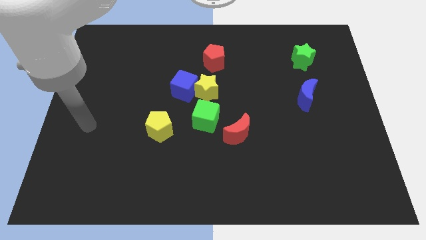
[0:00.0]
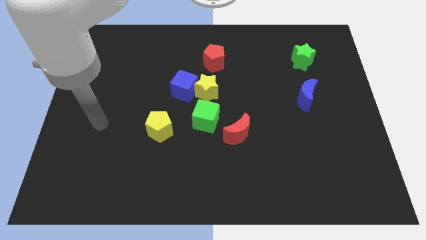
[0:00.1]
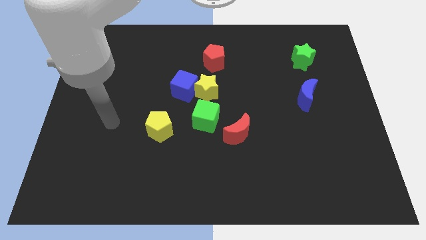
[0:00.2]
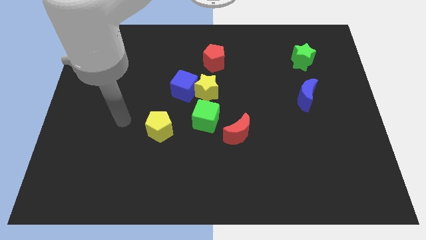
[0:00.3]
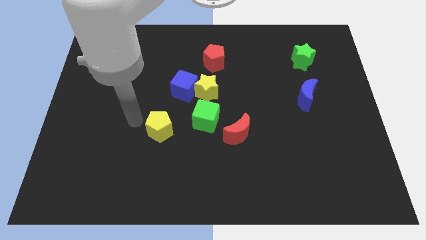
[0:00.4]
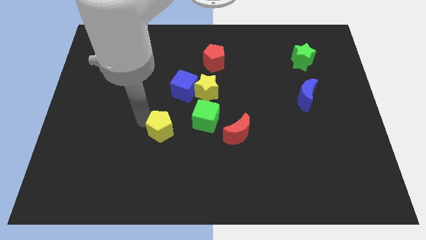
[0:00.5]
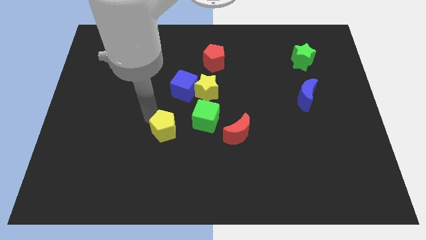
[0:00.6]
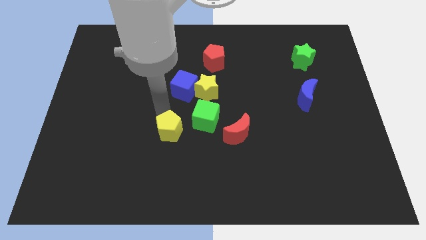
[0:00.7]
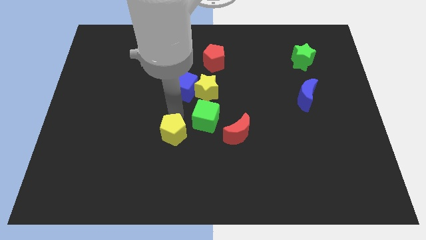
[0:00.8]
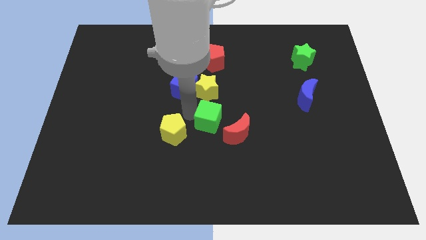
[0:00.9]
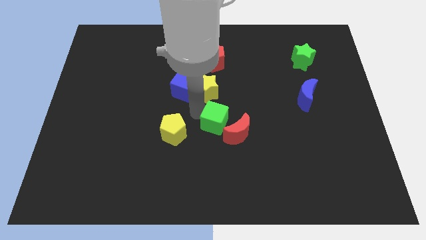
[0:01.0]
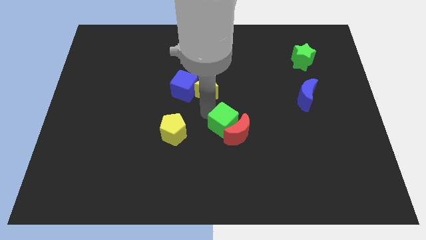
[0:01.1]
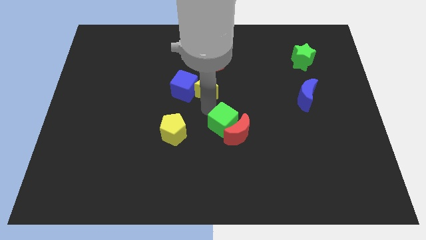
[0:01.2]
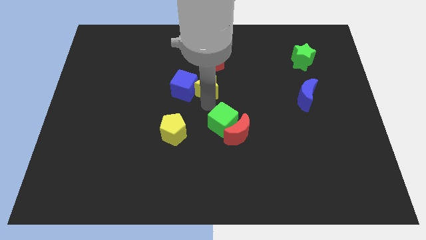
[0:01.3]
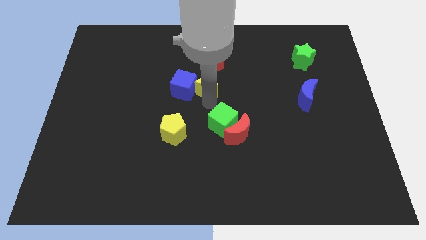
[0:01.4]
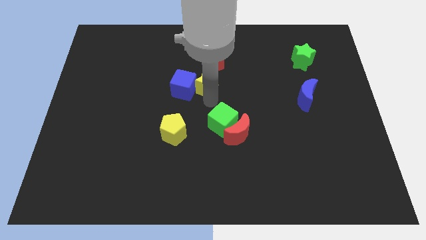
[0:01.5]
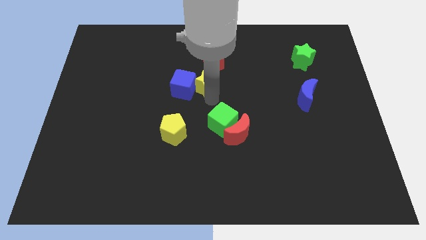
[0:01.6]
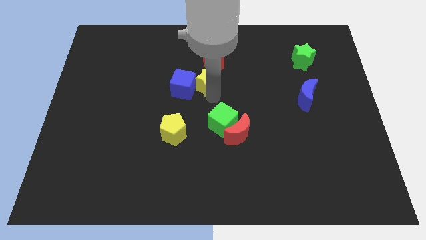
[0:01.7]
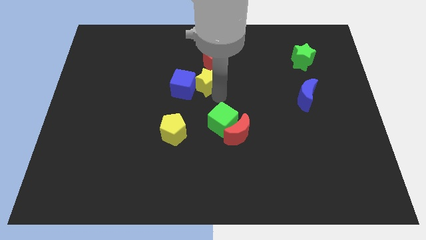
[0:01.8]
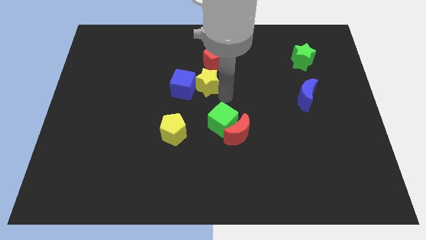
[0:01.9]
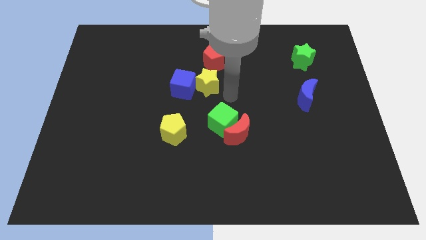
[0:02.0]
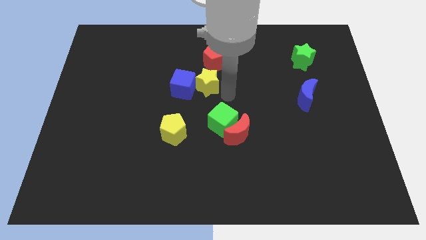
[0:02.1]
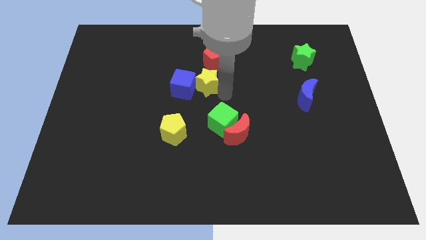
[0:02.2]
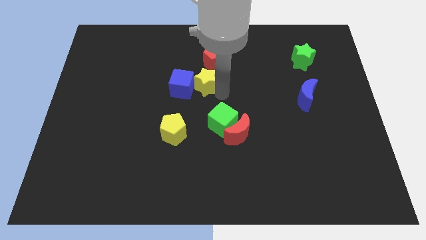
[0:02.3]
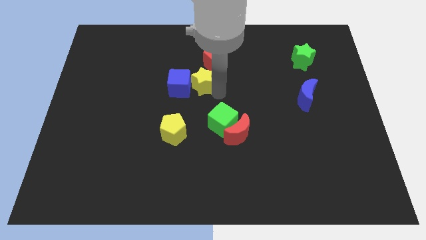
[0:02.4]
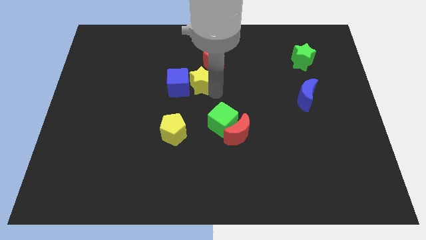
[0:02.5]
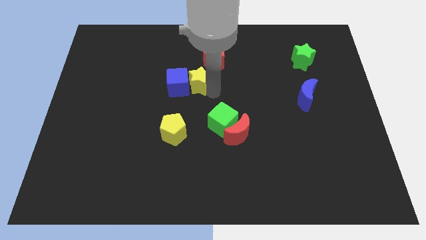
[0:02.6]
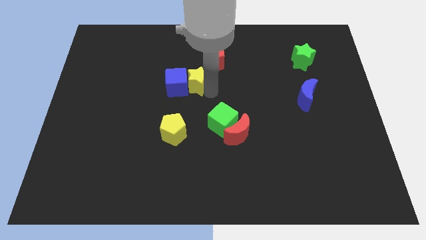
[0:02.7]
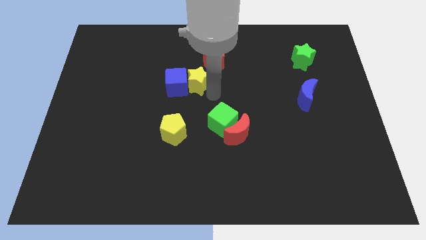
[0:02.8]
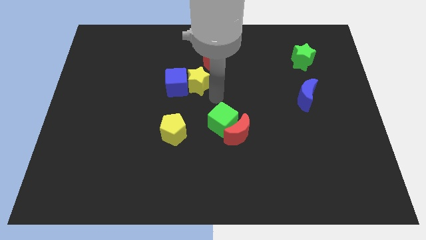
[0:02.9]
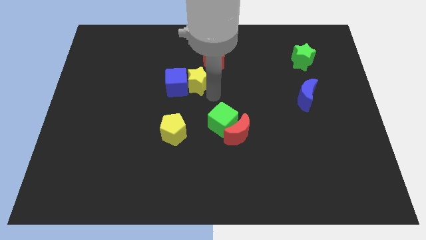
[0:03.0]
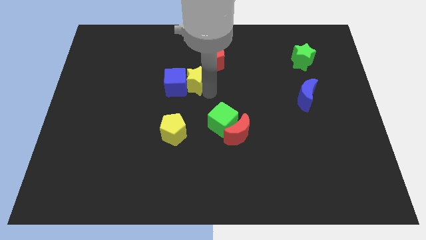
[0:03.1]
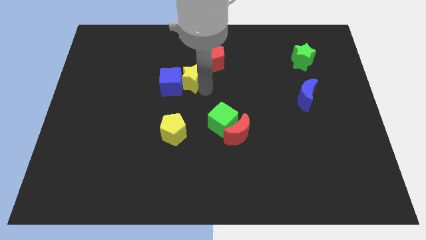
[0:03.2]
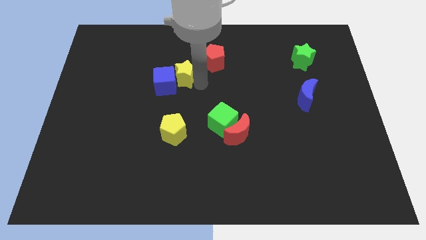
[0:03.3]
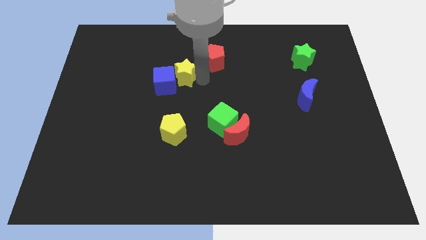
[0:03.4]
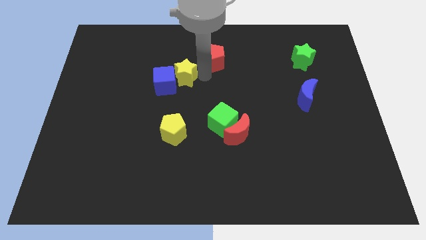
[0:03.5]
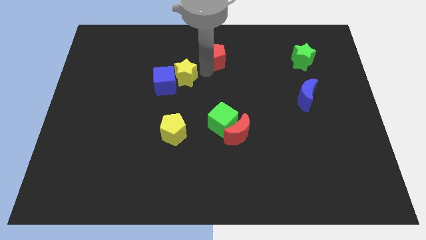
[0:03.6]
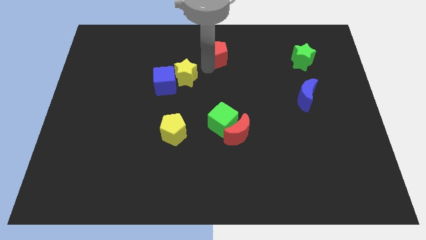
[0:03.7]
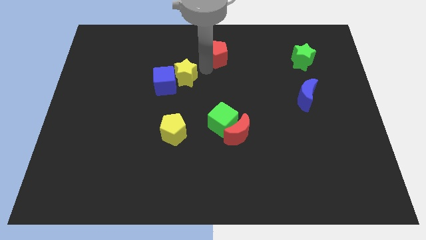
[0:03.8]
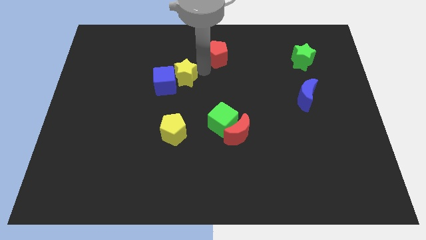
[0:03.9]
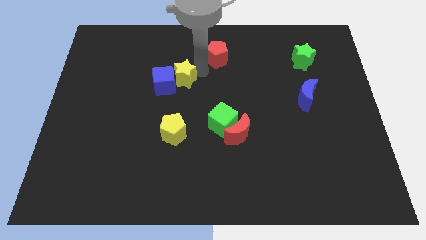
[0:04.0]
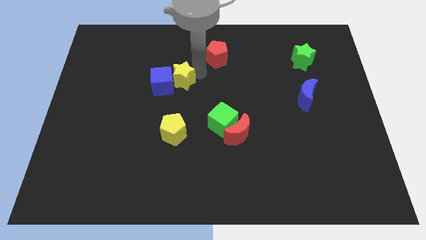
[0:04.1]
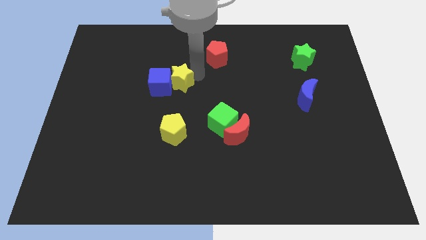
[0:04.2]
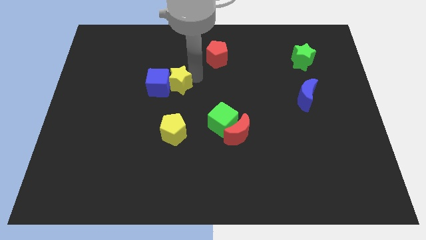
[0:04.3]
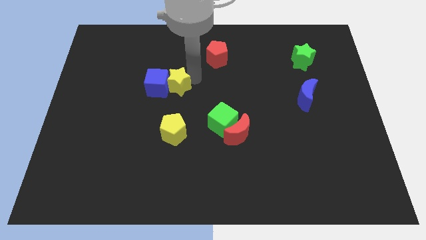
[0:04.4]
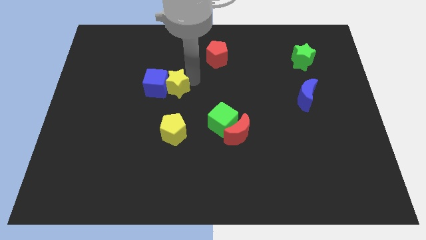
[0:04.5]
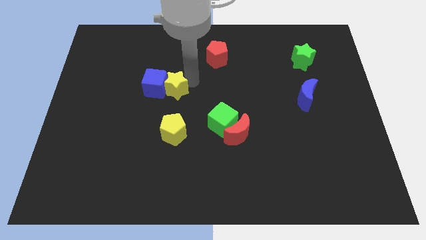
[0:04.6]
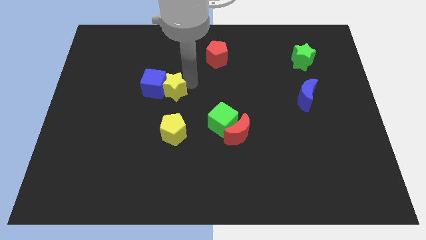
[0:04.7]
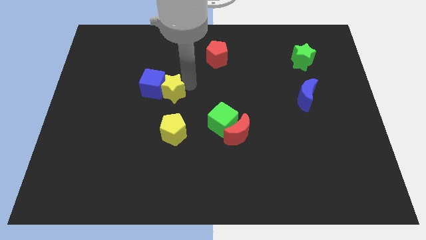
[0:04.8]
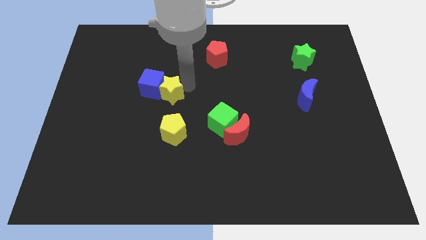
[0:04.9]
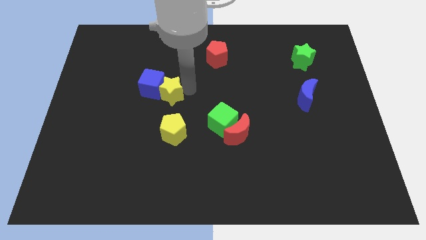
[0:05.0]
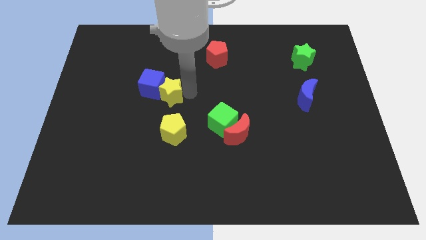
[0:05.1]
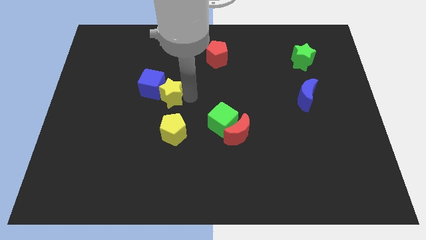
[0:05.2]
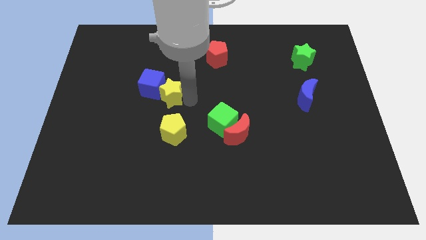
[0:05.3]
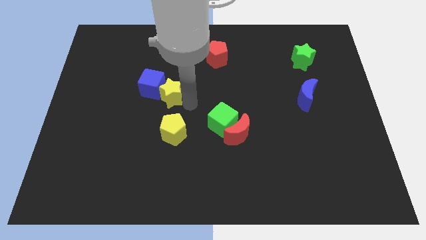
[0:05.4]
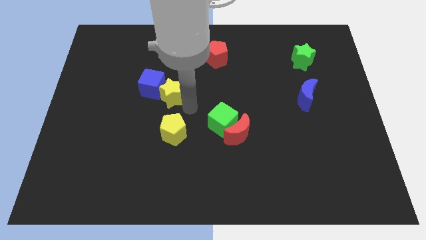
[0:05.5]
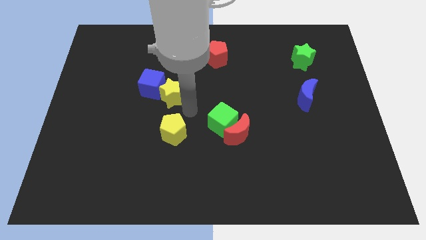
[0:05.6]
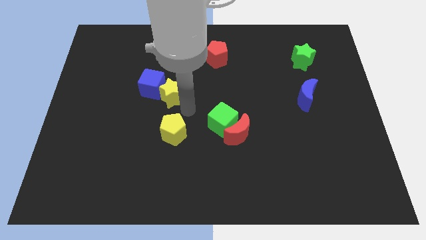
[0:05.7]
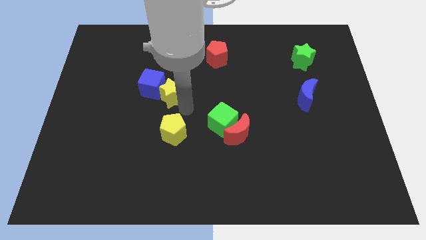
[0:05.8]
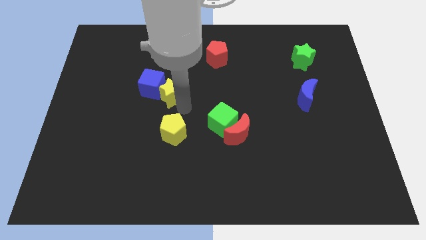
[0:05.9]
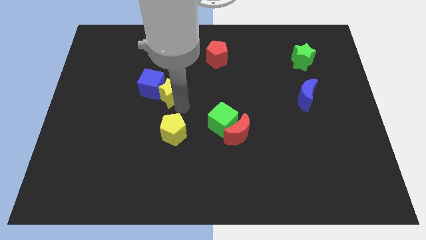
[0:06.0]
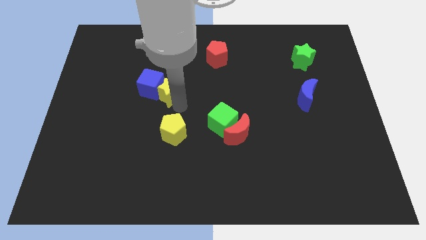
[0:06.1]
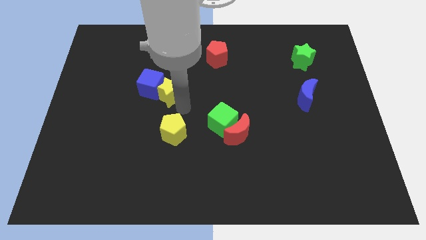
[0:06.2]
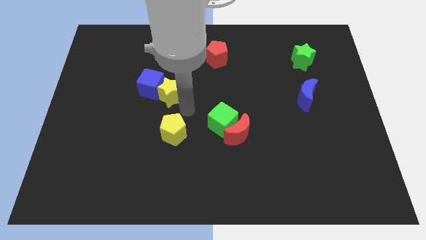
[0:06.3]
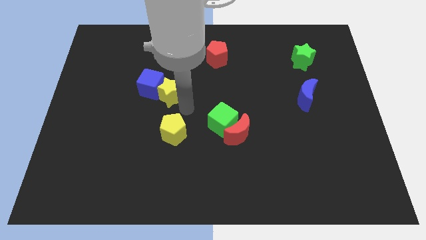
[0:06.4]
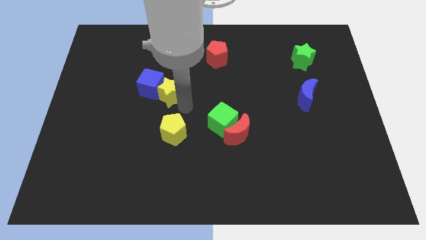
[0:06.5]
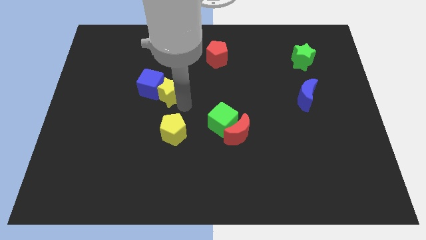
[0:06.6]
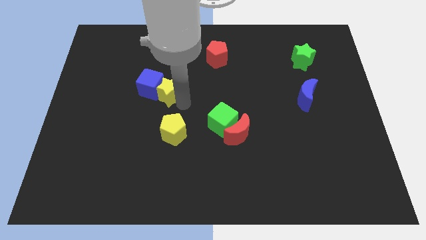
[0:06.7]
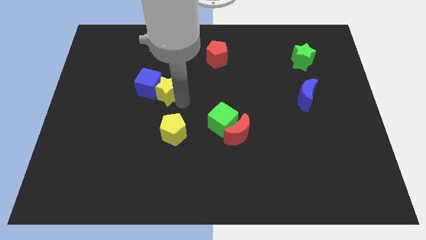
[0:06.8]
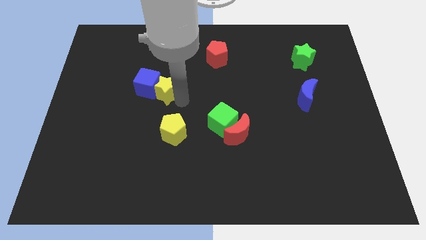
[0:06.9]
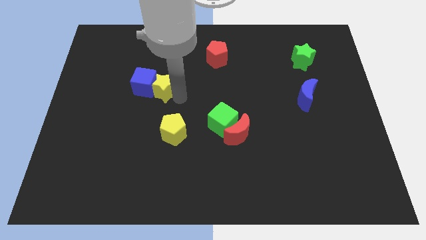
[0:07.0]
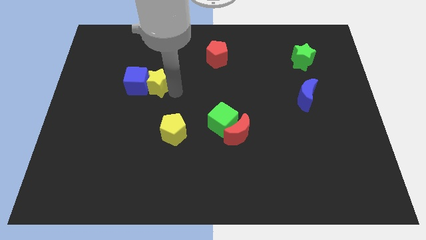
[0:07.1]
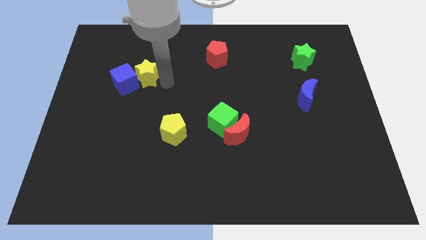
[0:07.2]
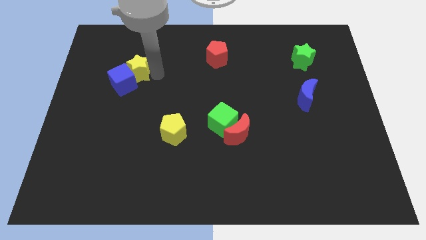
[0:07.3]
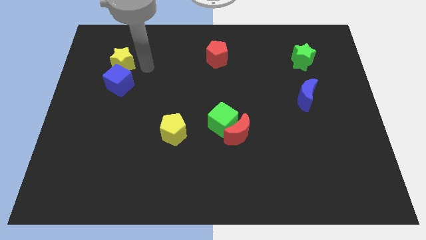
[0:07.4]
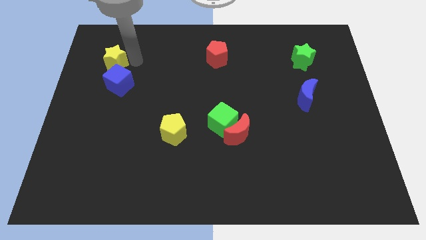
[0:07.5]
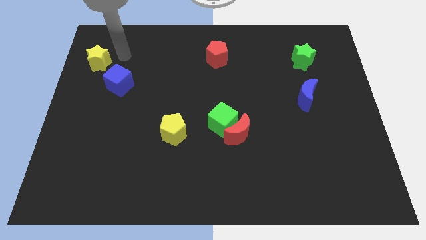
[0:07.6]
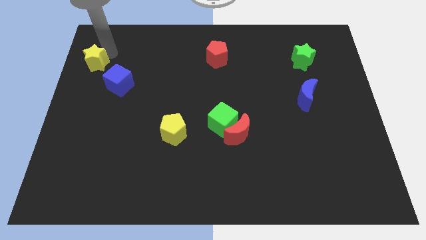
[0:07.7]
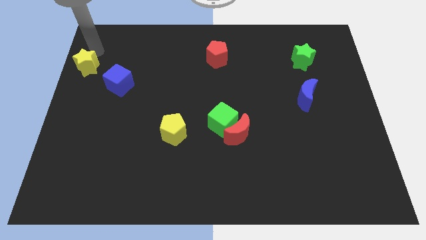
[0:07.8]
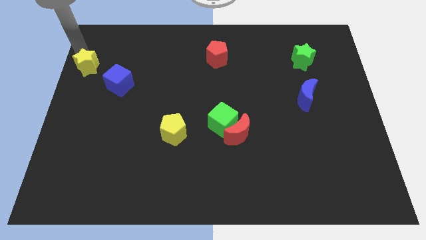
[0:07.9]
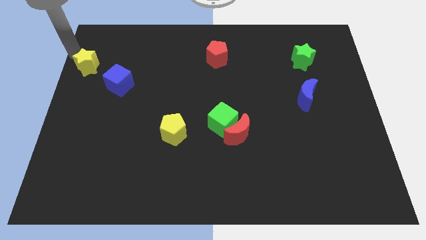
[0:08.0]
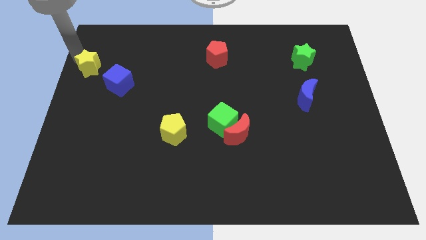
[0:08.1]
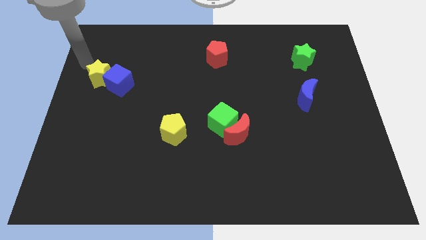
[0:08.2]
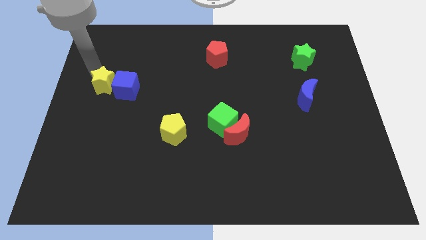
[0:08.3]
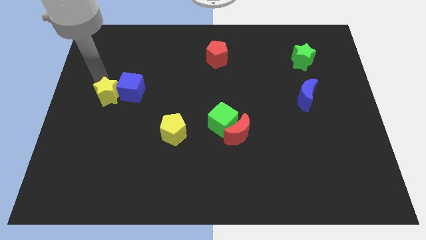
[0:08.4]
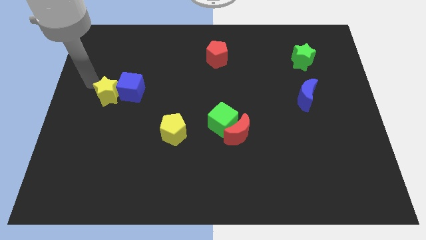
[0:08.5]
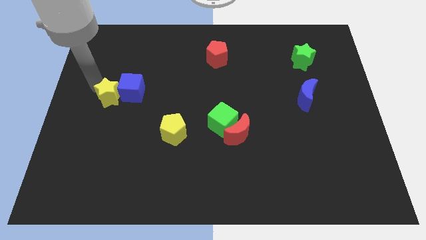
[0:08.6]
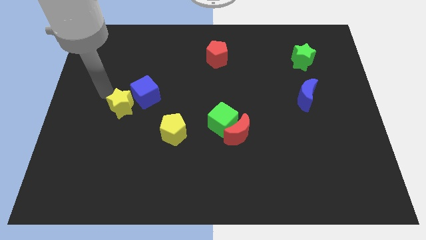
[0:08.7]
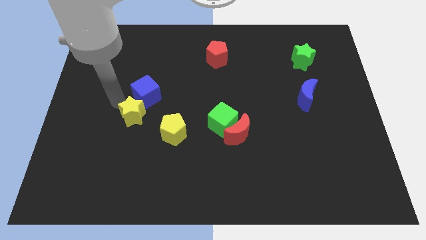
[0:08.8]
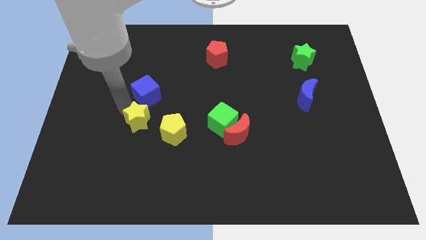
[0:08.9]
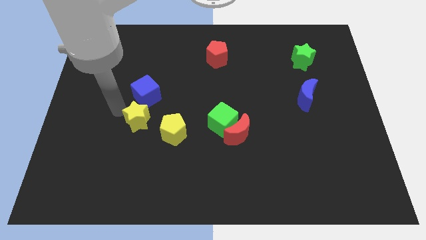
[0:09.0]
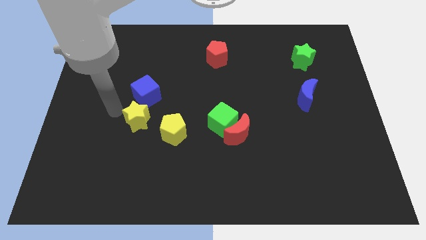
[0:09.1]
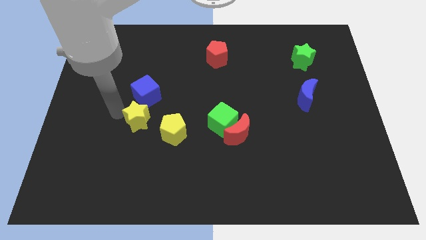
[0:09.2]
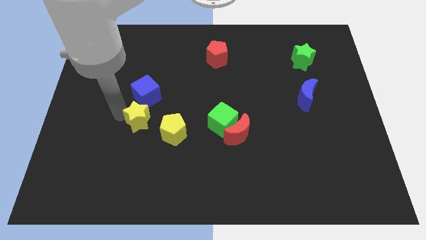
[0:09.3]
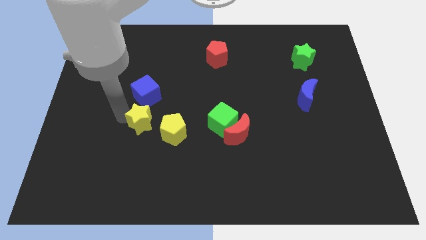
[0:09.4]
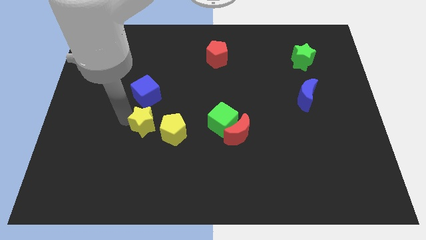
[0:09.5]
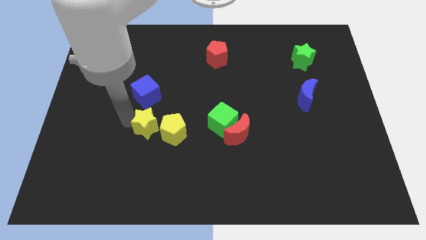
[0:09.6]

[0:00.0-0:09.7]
slide the yellow star next to the yellow pentagon
